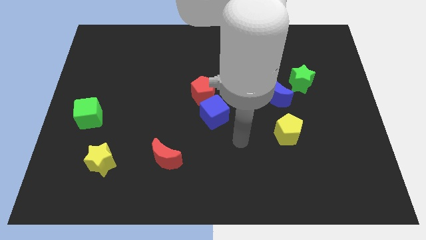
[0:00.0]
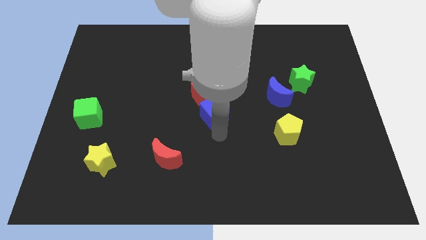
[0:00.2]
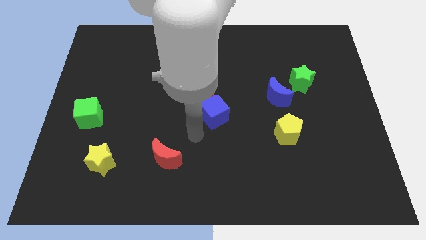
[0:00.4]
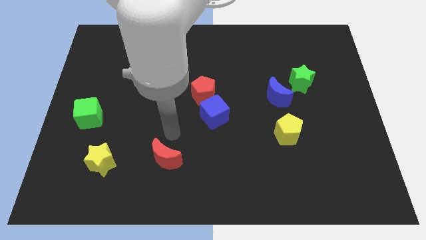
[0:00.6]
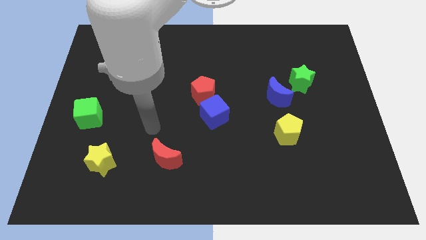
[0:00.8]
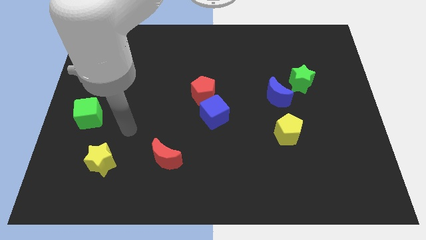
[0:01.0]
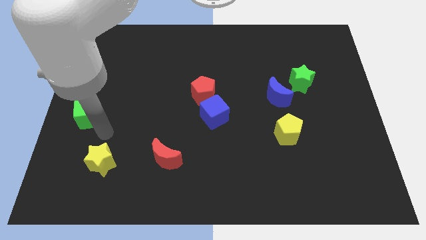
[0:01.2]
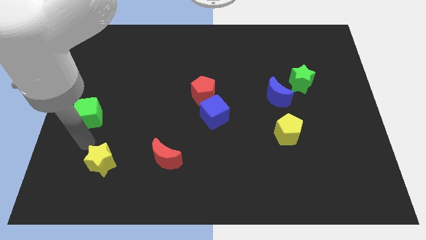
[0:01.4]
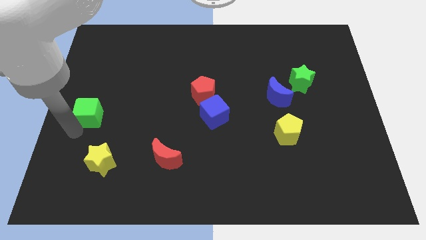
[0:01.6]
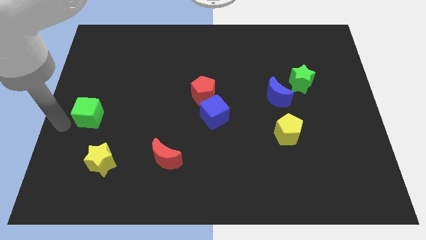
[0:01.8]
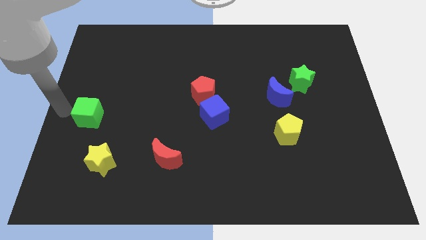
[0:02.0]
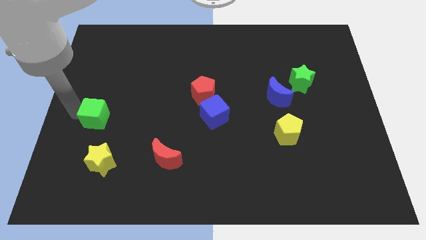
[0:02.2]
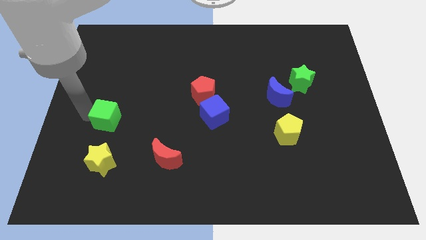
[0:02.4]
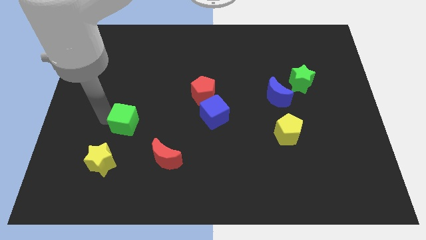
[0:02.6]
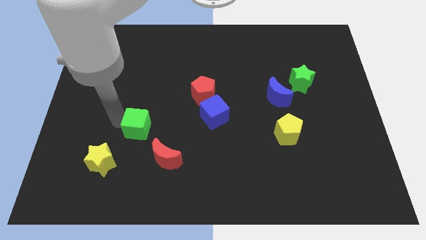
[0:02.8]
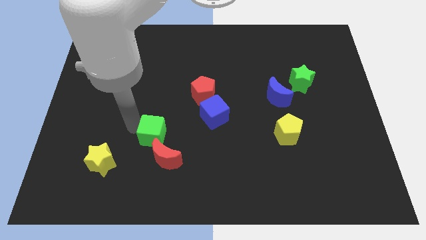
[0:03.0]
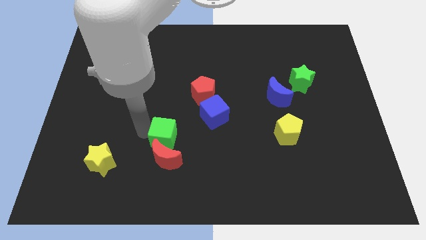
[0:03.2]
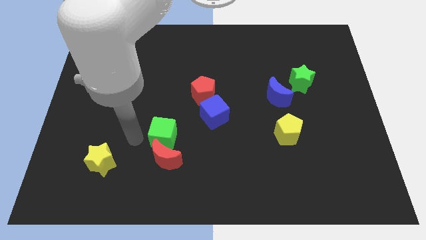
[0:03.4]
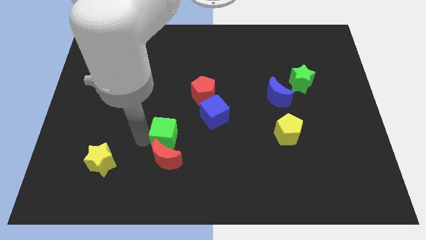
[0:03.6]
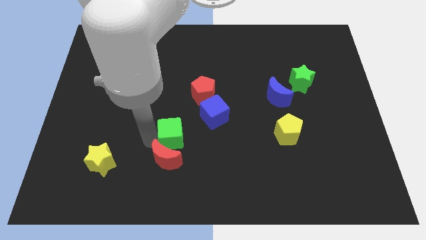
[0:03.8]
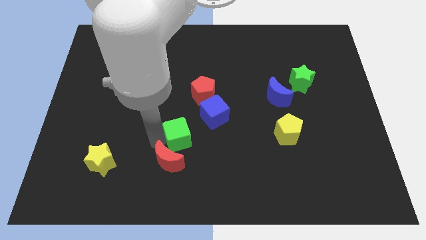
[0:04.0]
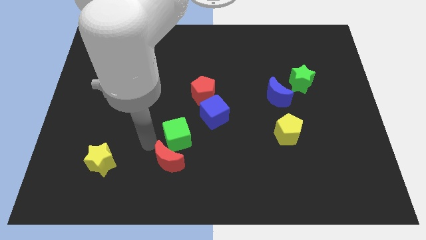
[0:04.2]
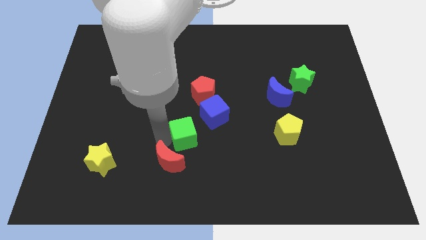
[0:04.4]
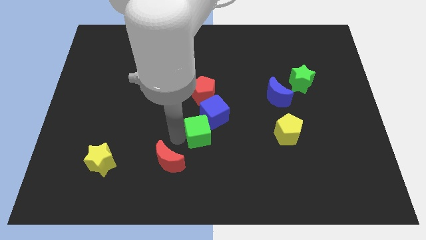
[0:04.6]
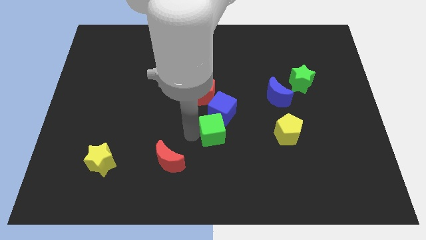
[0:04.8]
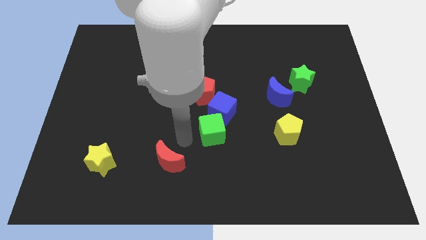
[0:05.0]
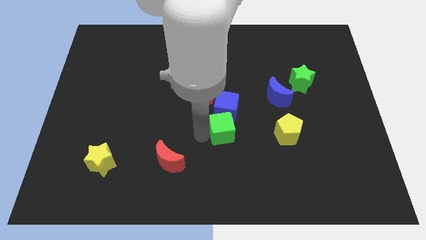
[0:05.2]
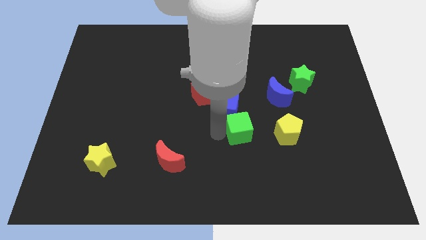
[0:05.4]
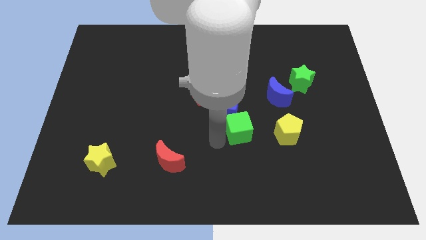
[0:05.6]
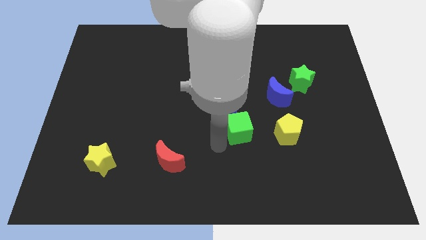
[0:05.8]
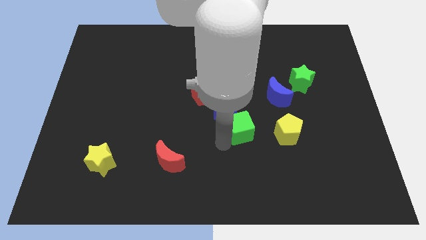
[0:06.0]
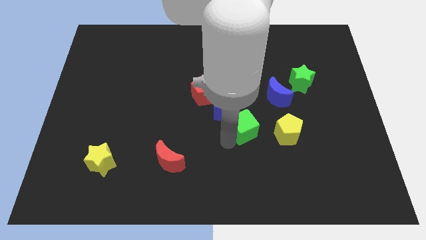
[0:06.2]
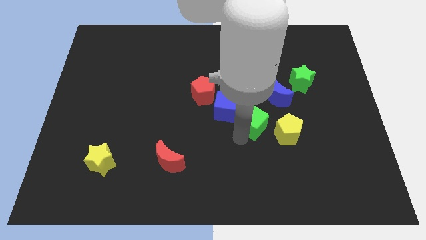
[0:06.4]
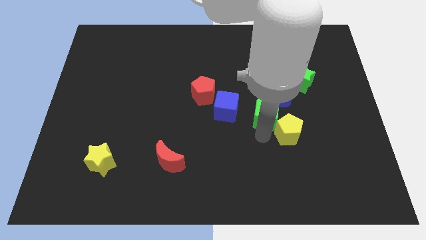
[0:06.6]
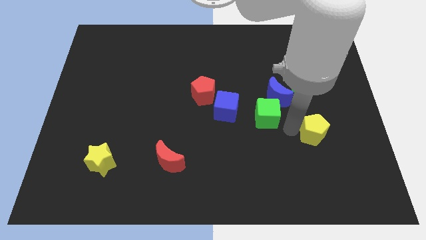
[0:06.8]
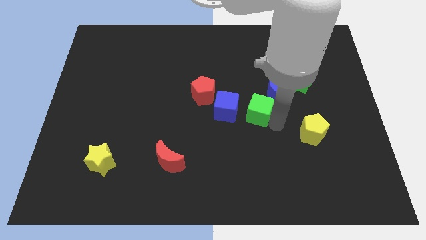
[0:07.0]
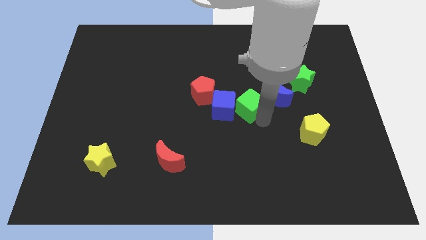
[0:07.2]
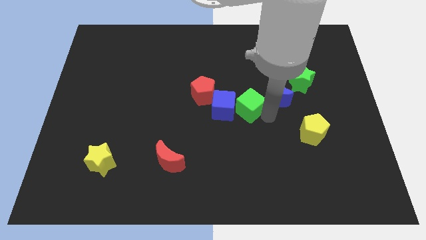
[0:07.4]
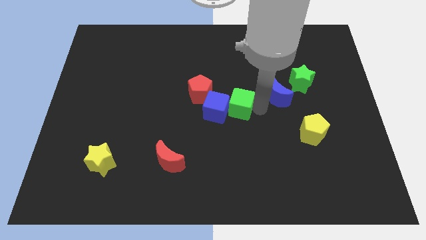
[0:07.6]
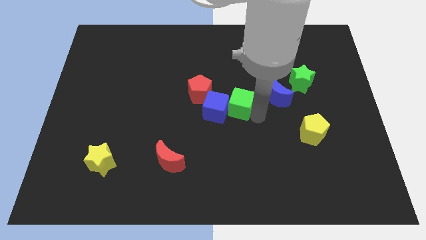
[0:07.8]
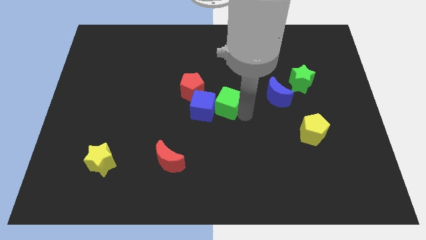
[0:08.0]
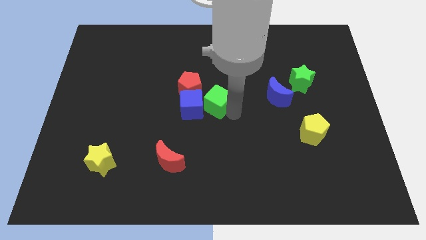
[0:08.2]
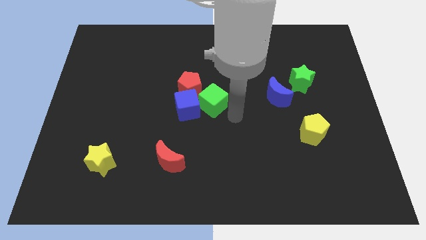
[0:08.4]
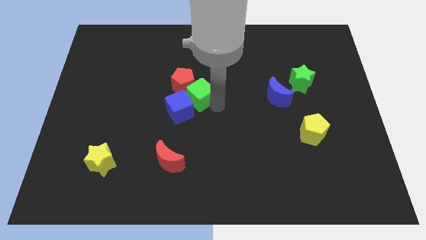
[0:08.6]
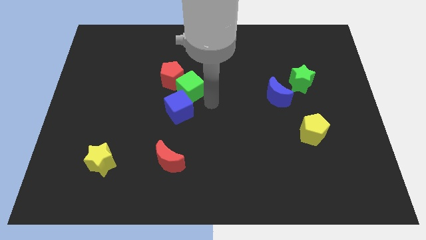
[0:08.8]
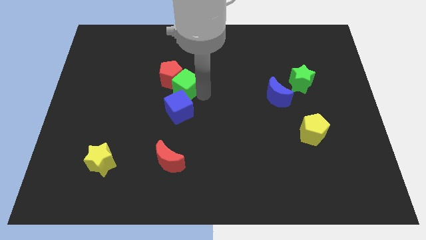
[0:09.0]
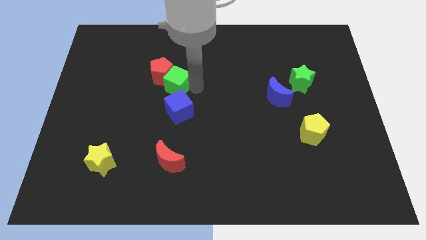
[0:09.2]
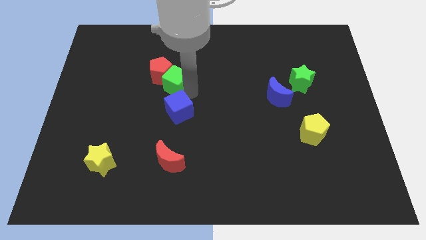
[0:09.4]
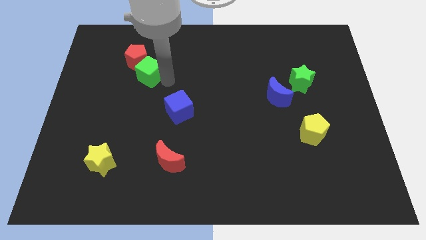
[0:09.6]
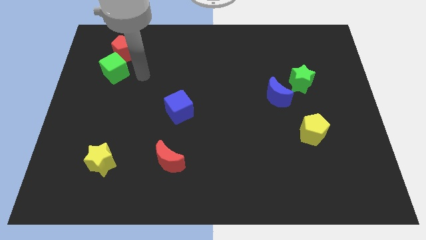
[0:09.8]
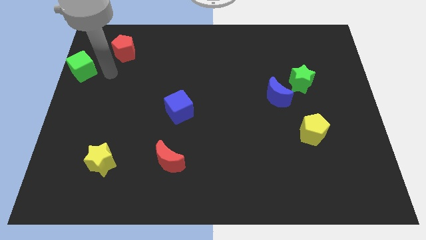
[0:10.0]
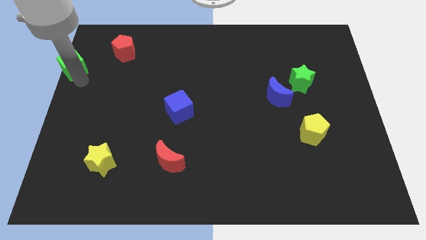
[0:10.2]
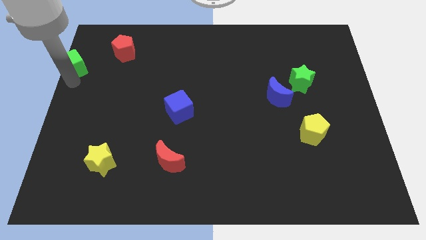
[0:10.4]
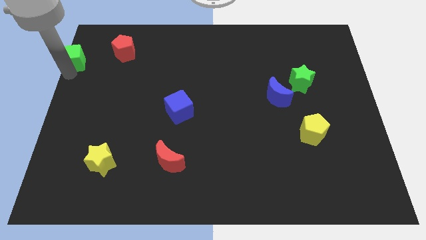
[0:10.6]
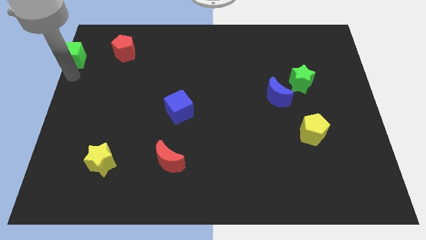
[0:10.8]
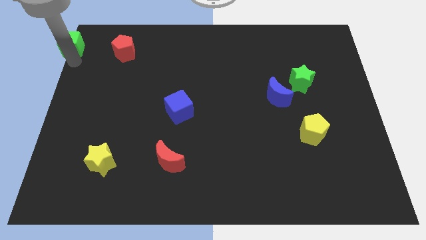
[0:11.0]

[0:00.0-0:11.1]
move the green cube to the top left of the board
